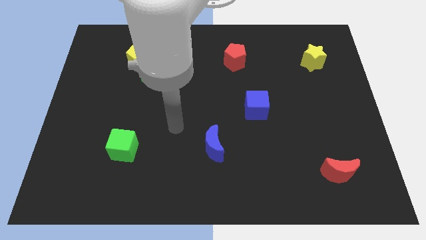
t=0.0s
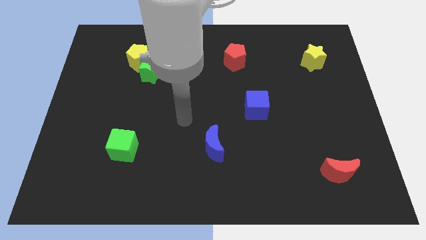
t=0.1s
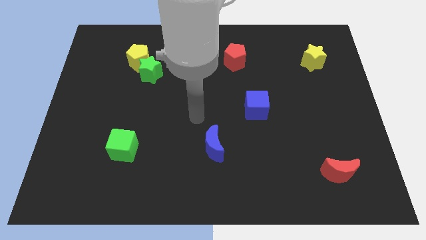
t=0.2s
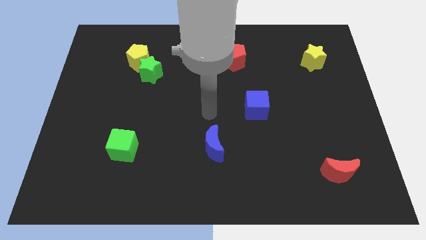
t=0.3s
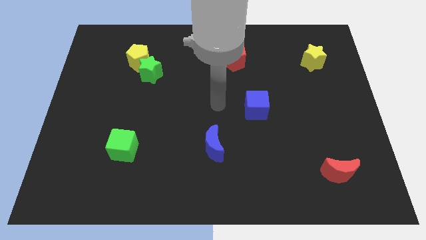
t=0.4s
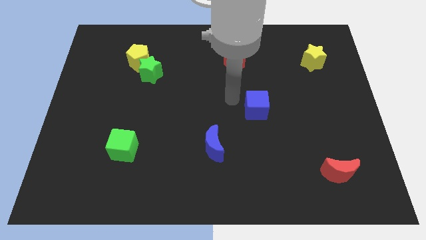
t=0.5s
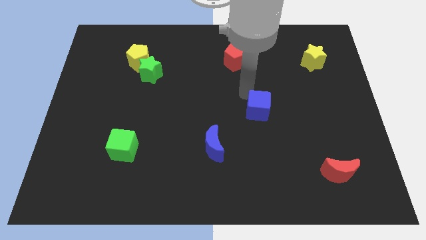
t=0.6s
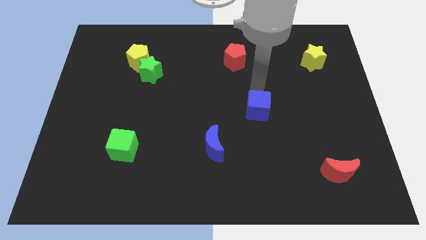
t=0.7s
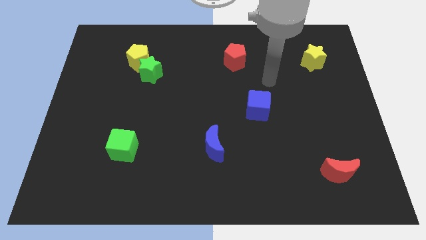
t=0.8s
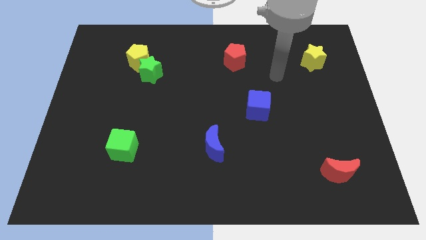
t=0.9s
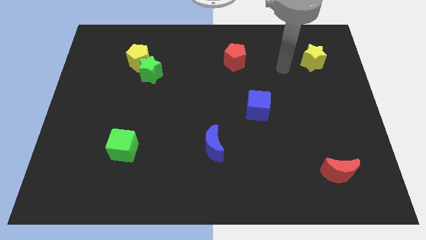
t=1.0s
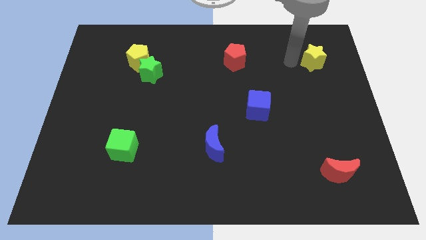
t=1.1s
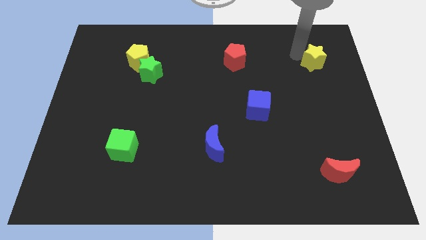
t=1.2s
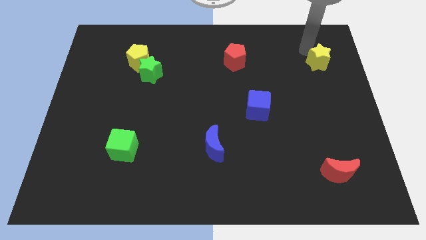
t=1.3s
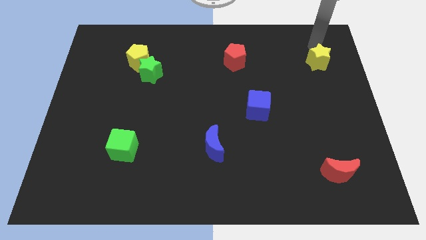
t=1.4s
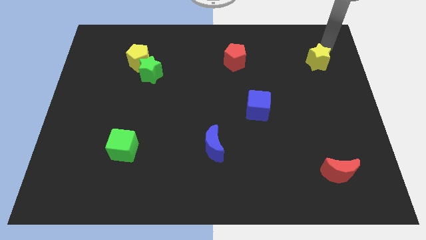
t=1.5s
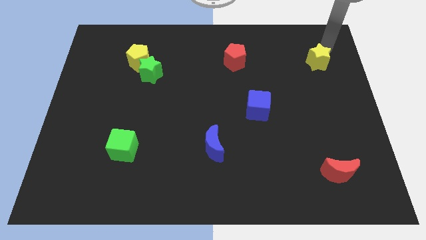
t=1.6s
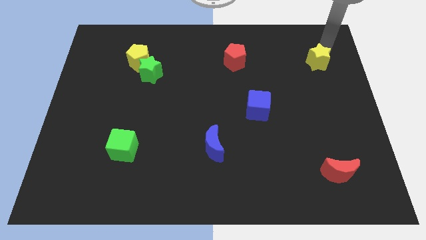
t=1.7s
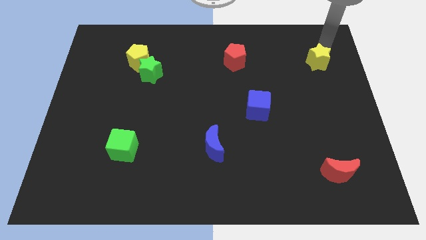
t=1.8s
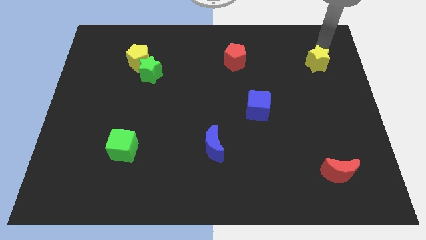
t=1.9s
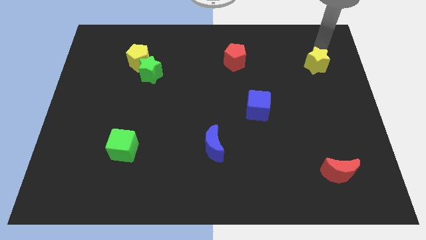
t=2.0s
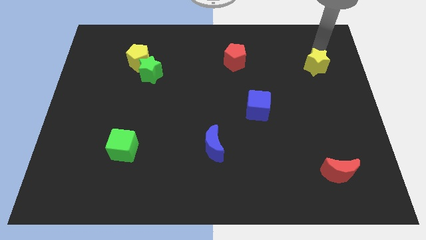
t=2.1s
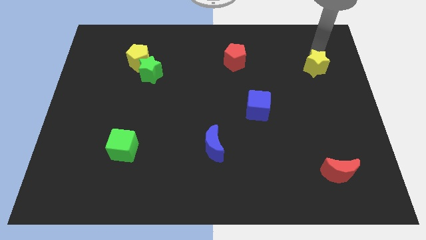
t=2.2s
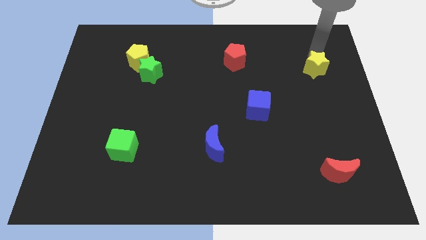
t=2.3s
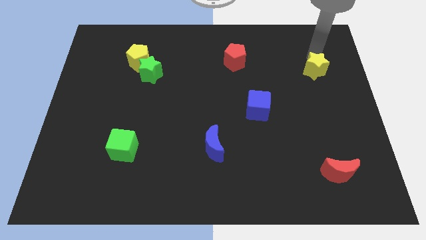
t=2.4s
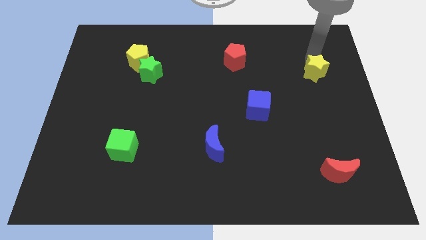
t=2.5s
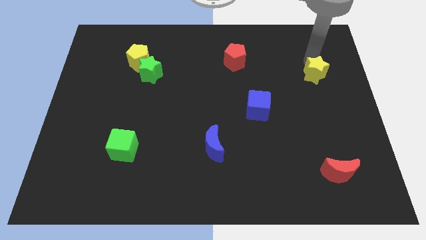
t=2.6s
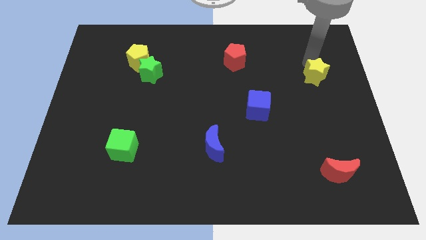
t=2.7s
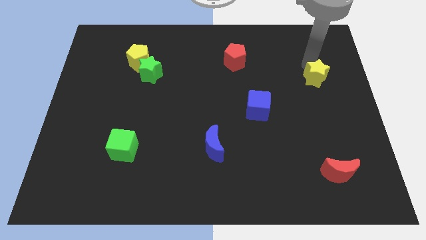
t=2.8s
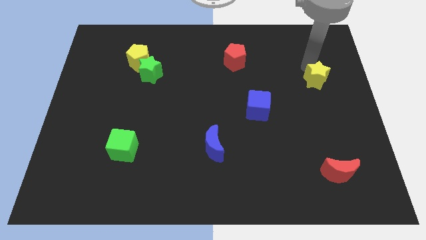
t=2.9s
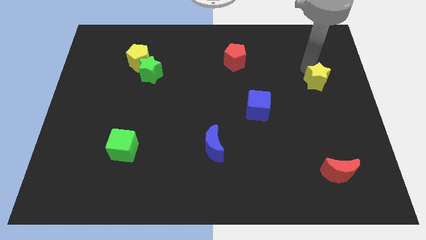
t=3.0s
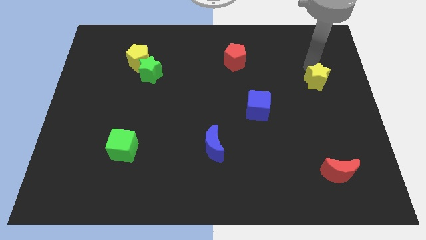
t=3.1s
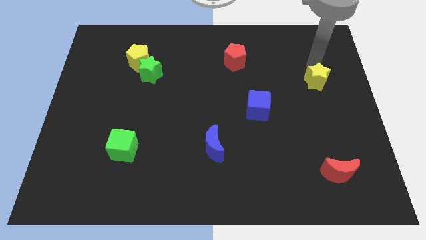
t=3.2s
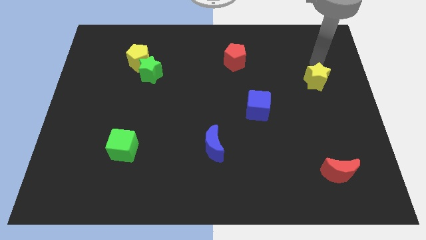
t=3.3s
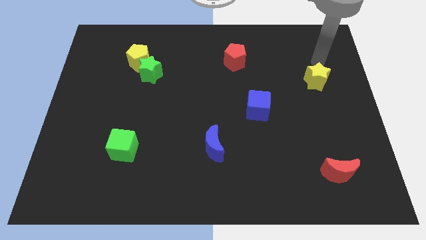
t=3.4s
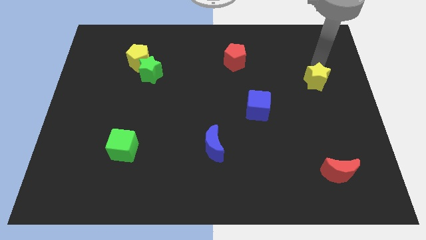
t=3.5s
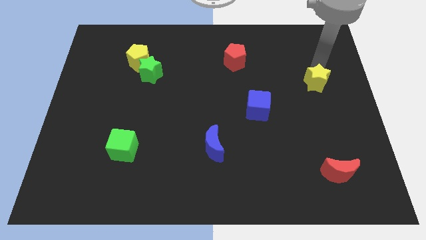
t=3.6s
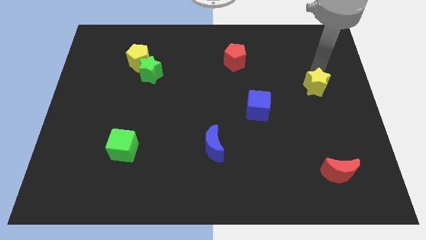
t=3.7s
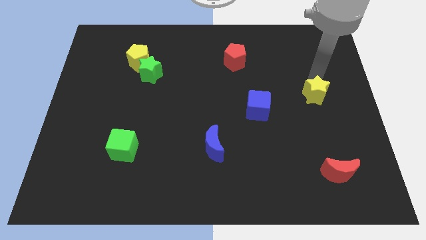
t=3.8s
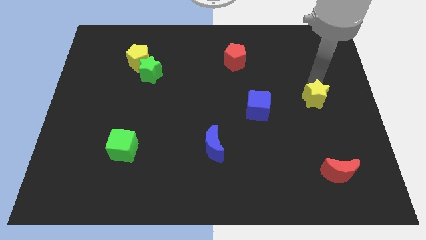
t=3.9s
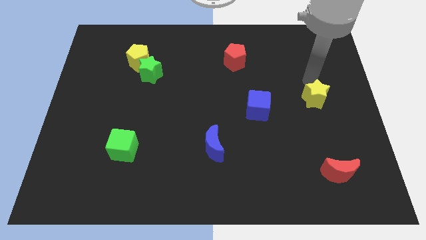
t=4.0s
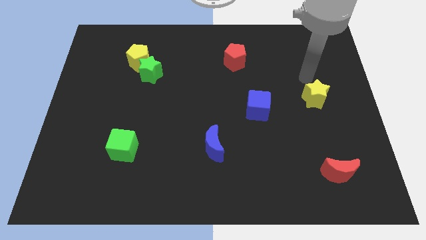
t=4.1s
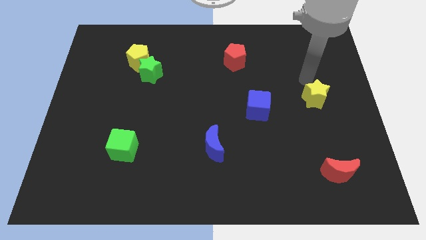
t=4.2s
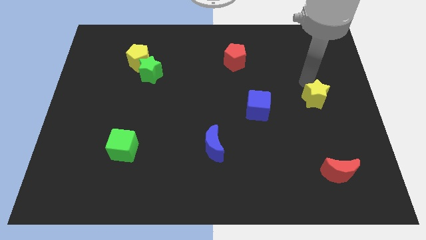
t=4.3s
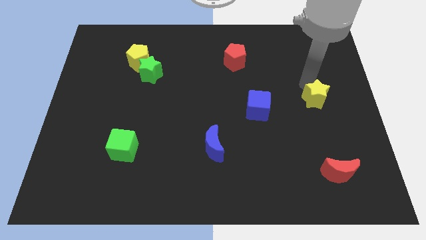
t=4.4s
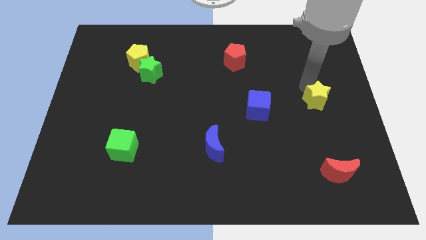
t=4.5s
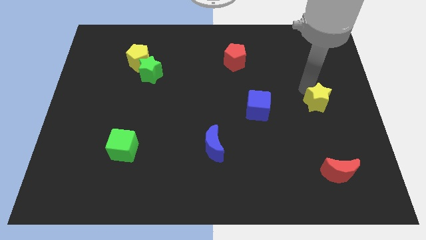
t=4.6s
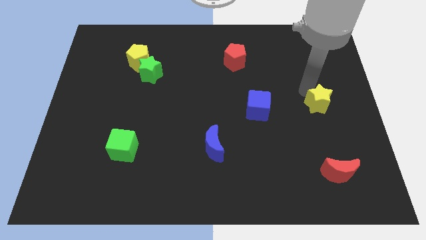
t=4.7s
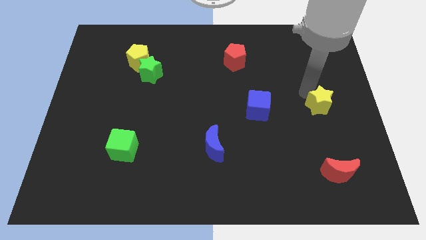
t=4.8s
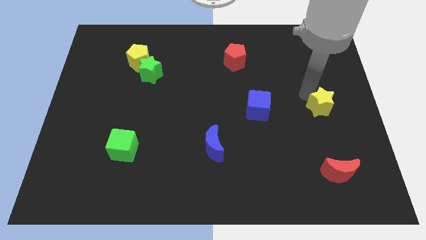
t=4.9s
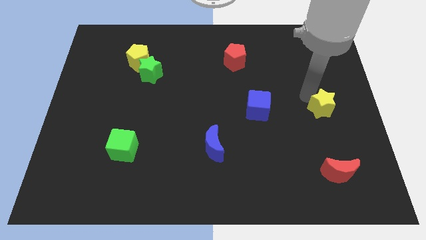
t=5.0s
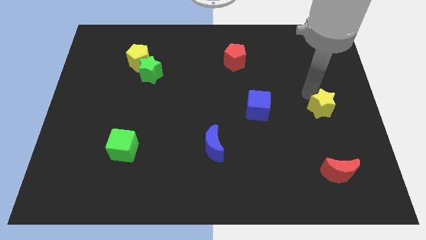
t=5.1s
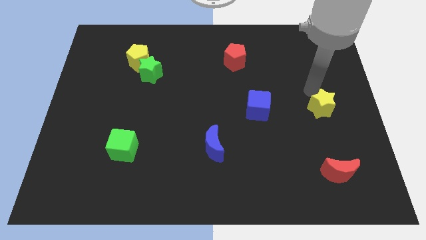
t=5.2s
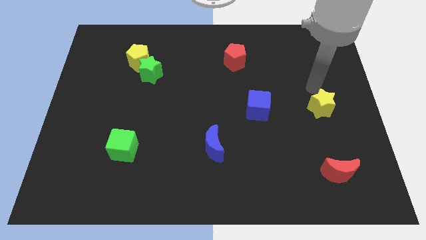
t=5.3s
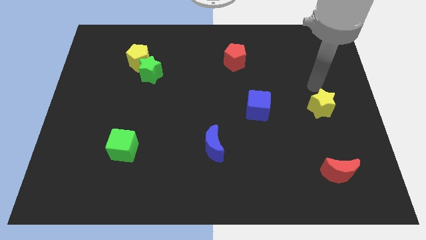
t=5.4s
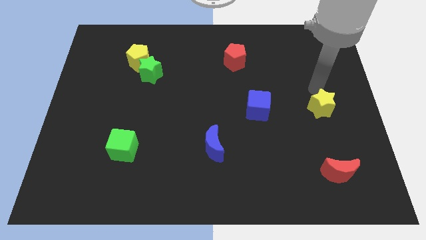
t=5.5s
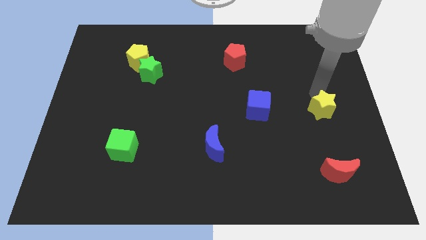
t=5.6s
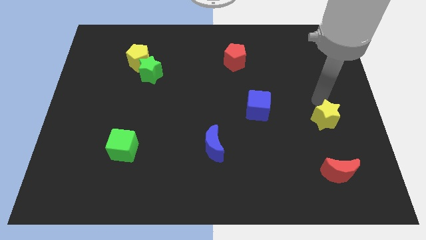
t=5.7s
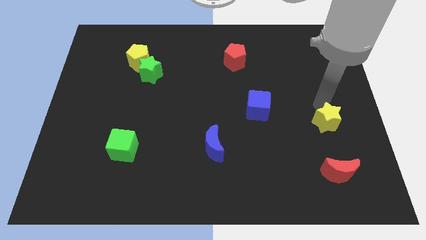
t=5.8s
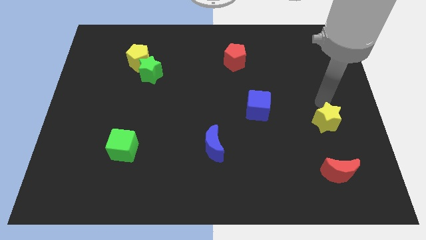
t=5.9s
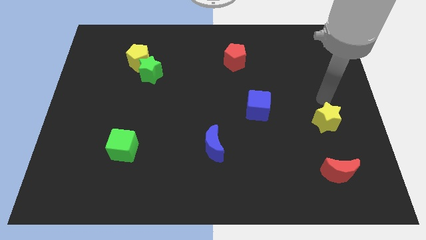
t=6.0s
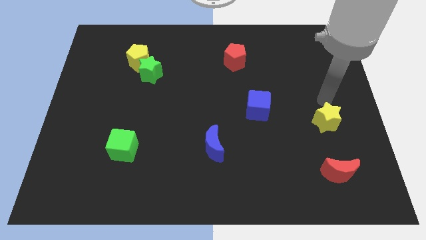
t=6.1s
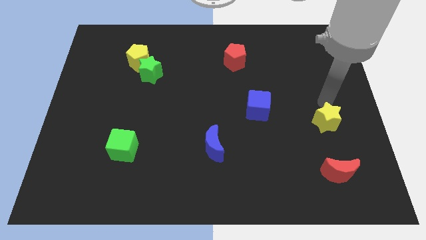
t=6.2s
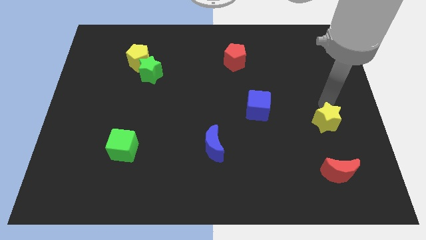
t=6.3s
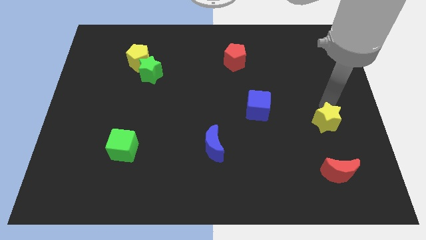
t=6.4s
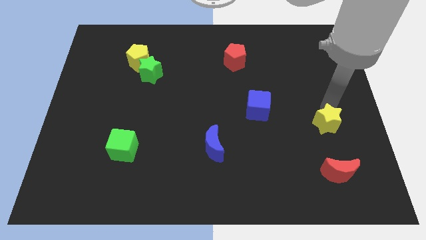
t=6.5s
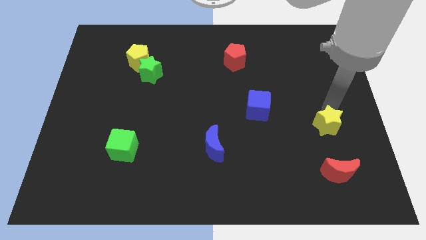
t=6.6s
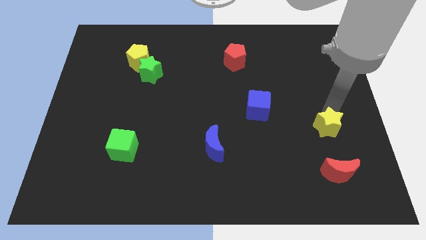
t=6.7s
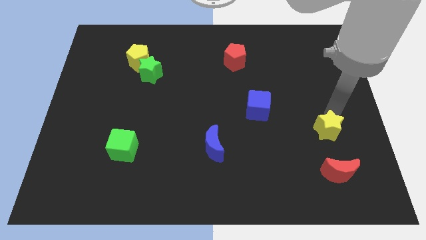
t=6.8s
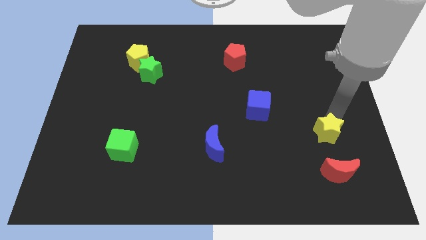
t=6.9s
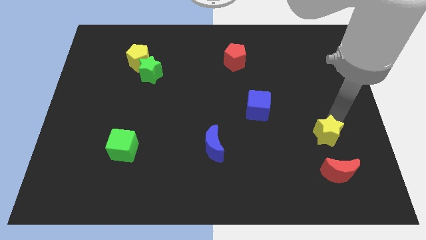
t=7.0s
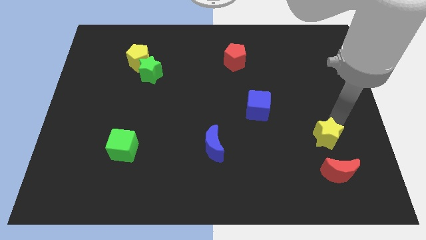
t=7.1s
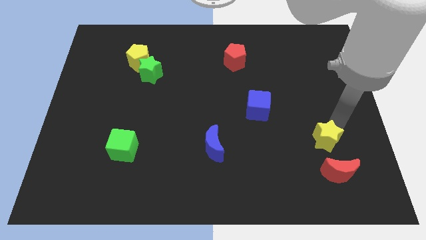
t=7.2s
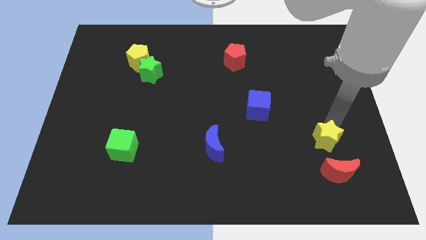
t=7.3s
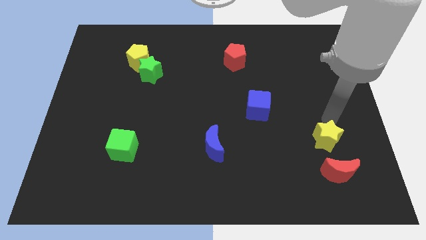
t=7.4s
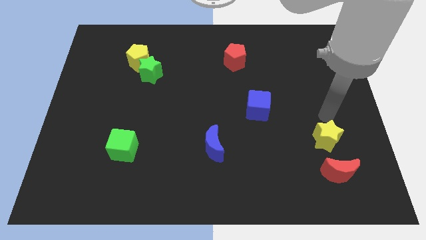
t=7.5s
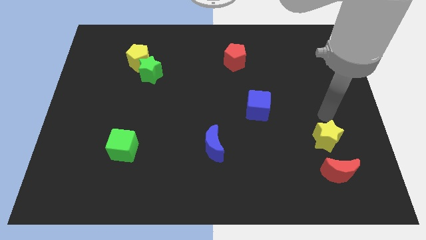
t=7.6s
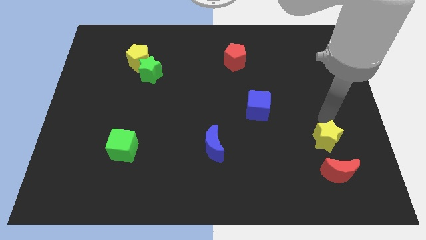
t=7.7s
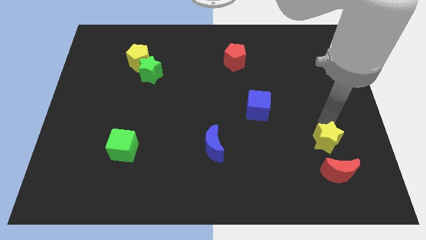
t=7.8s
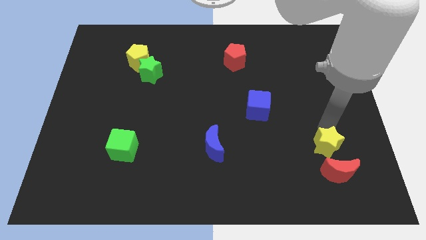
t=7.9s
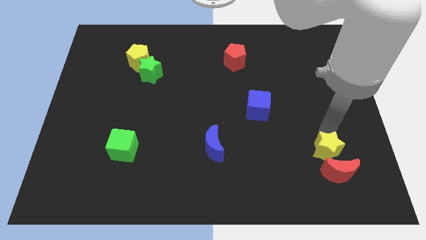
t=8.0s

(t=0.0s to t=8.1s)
push the yellow star to the red moon
